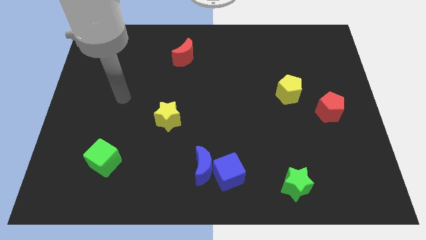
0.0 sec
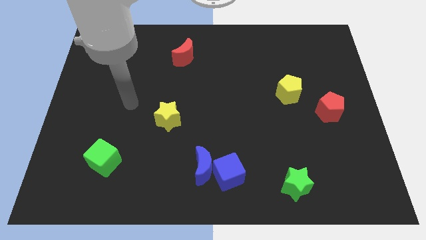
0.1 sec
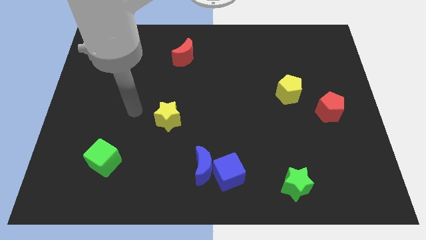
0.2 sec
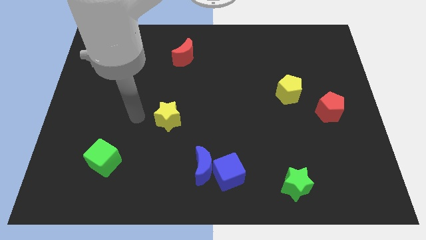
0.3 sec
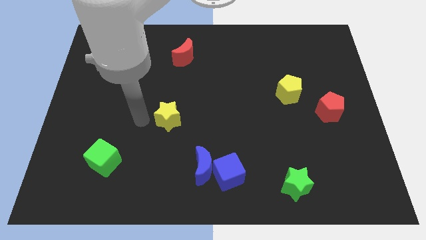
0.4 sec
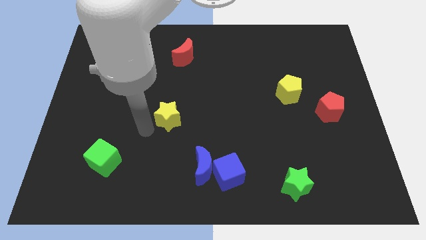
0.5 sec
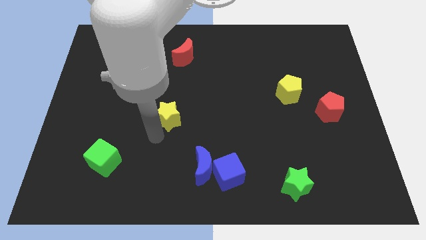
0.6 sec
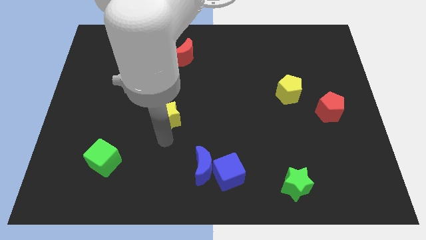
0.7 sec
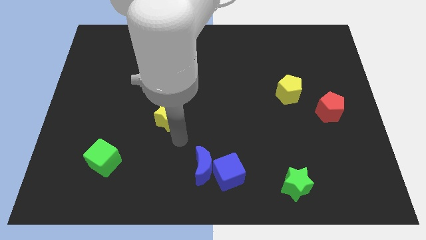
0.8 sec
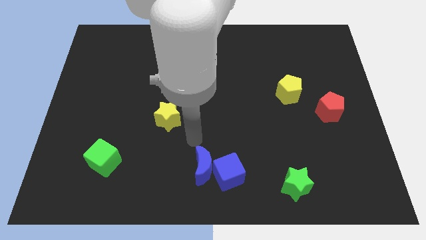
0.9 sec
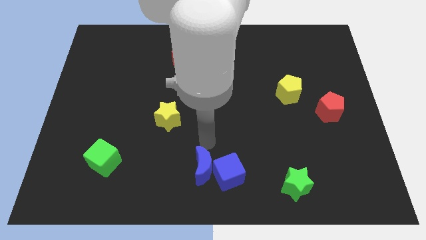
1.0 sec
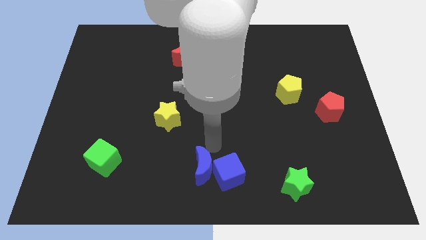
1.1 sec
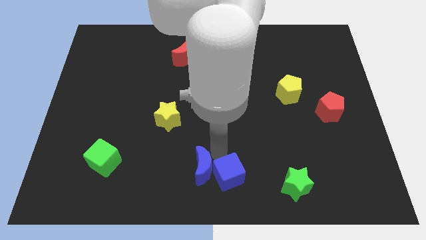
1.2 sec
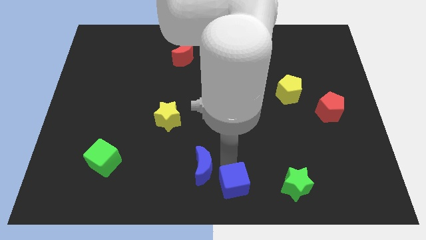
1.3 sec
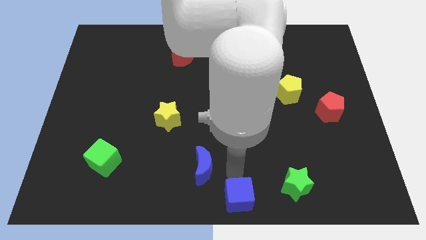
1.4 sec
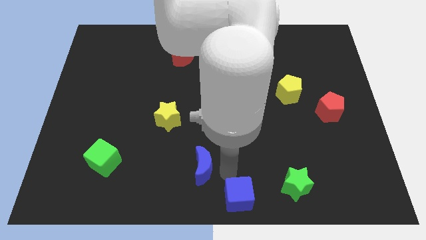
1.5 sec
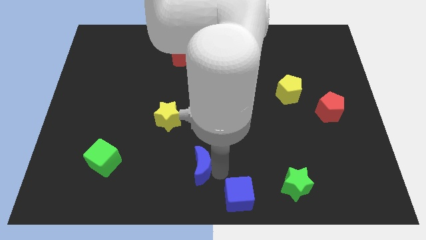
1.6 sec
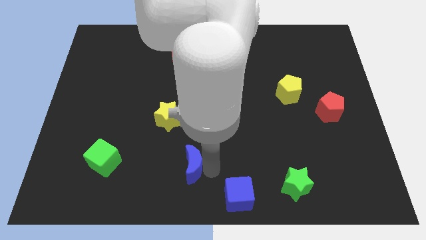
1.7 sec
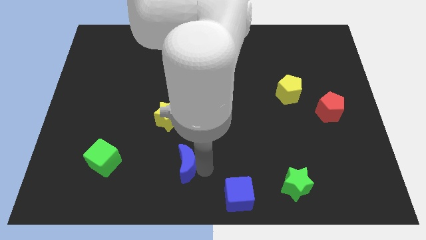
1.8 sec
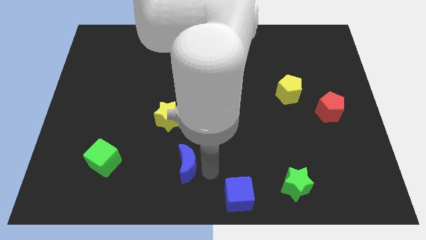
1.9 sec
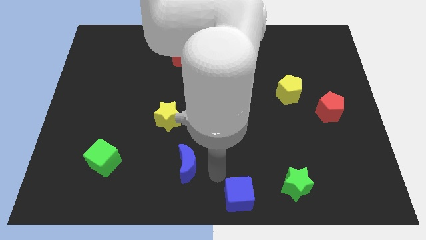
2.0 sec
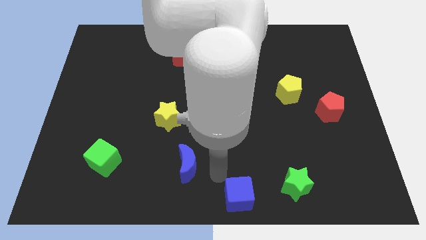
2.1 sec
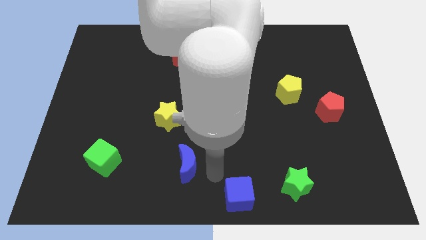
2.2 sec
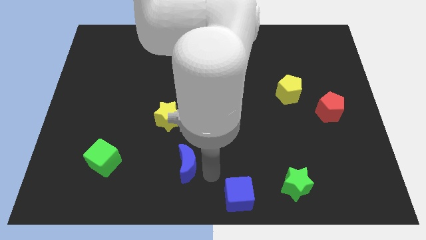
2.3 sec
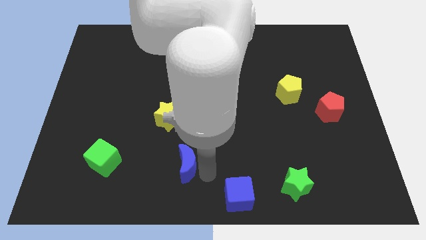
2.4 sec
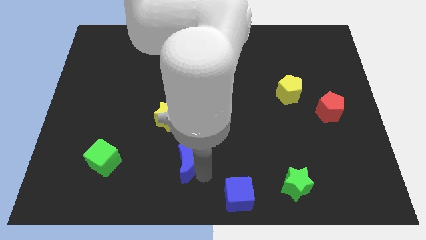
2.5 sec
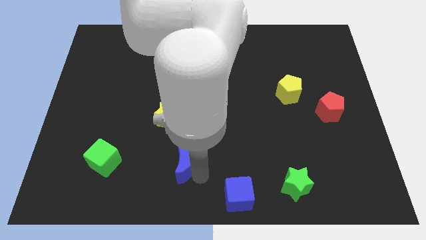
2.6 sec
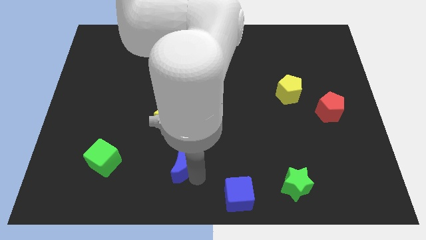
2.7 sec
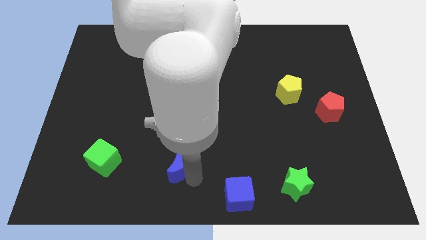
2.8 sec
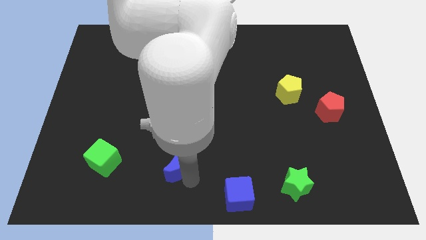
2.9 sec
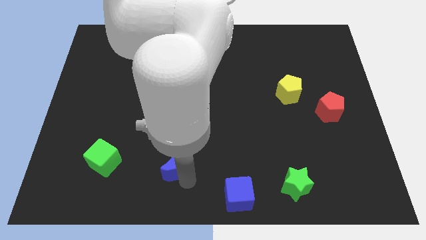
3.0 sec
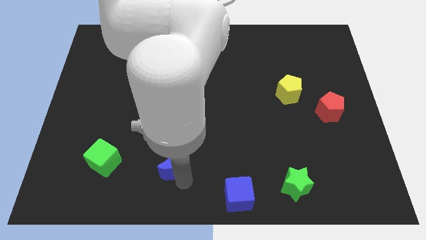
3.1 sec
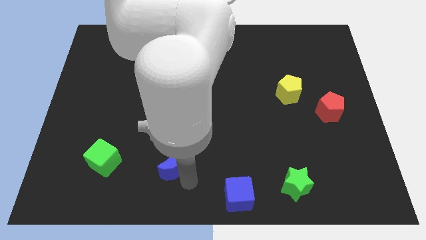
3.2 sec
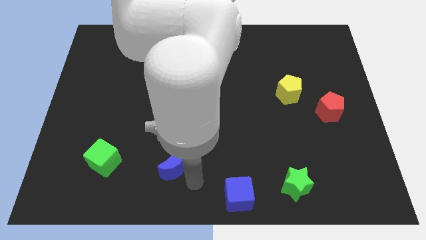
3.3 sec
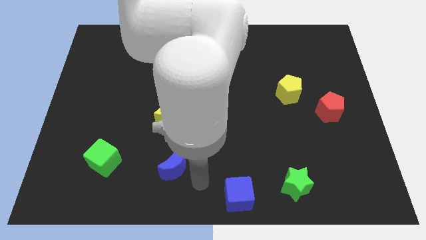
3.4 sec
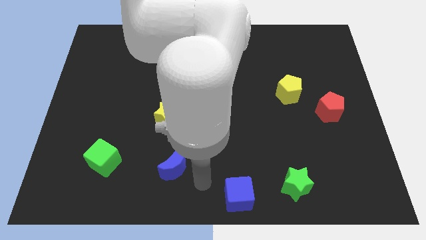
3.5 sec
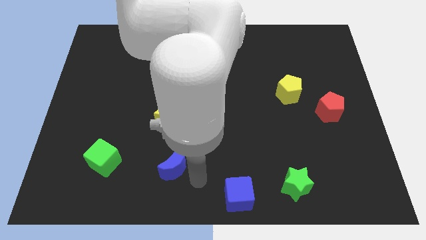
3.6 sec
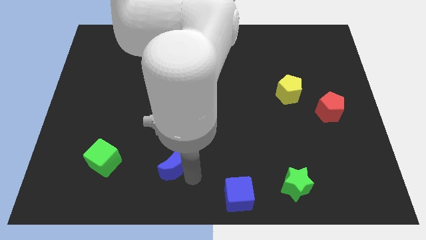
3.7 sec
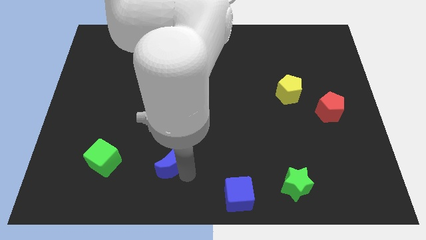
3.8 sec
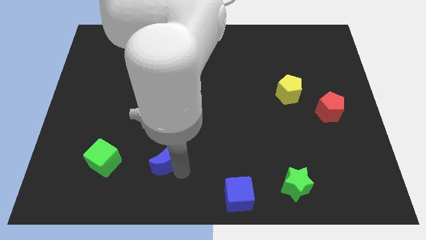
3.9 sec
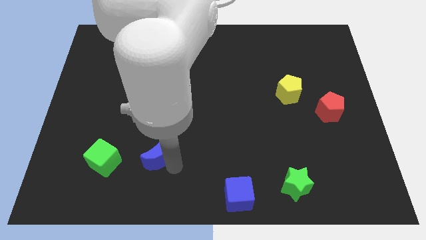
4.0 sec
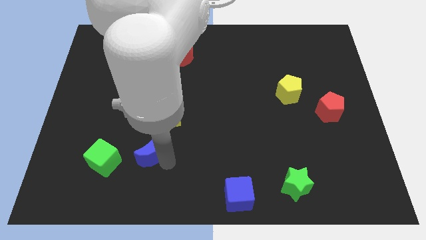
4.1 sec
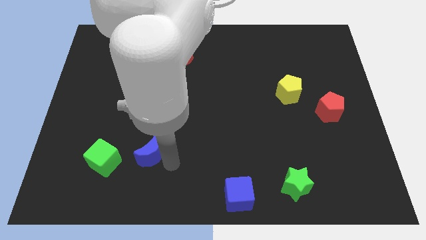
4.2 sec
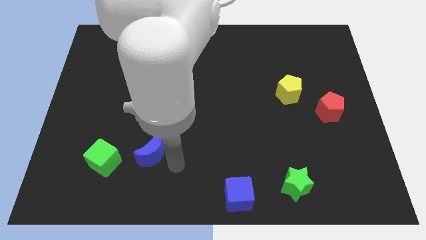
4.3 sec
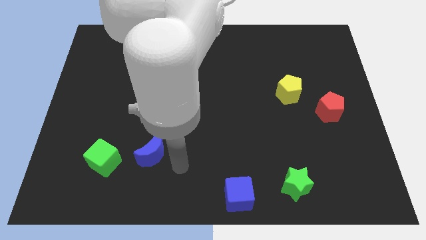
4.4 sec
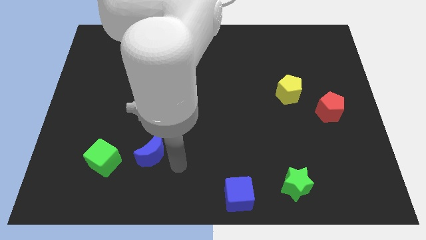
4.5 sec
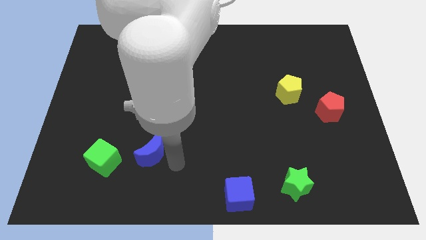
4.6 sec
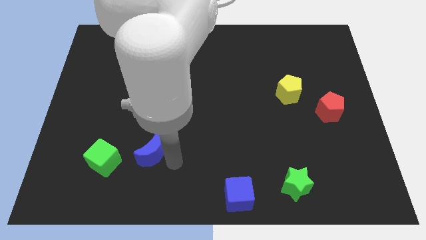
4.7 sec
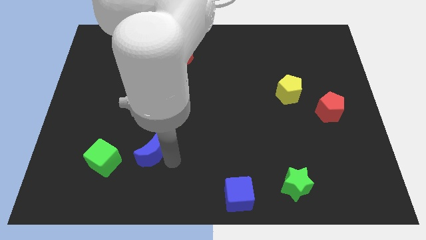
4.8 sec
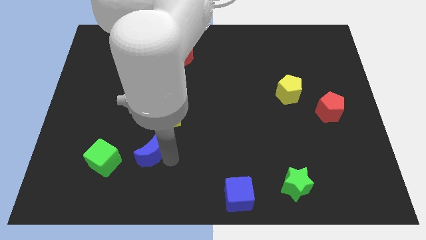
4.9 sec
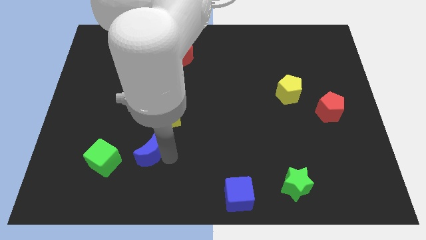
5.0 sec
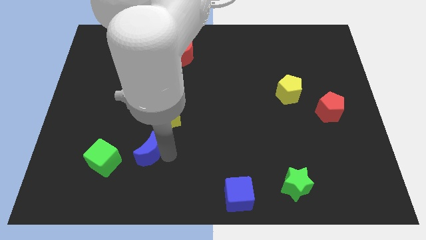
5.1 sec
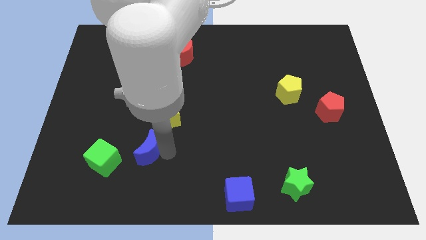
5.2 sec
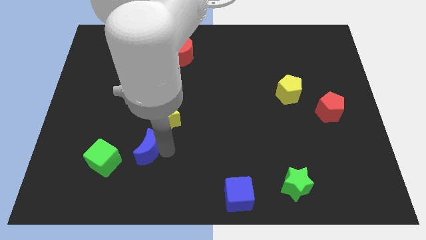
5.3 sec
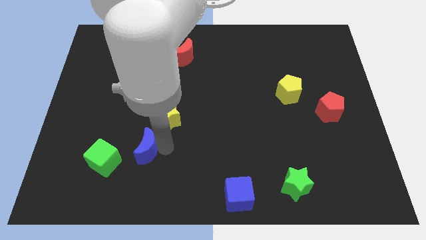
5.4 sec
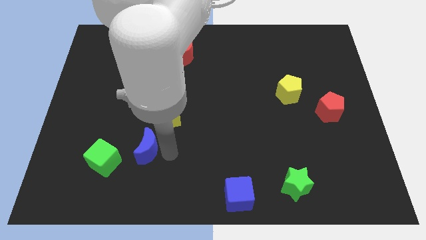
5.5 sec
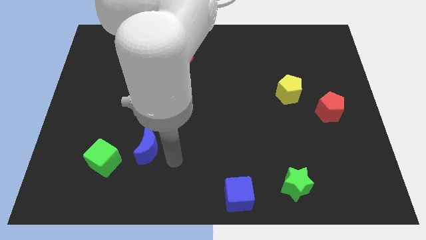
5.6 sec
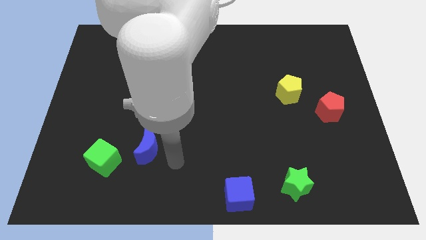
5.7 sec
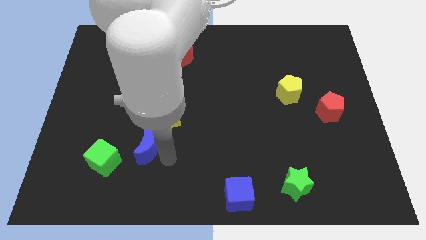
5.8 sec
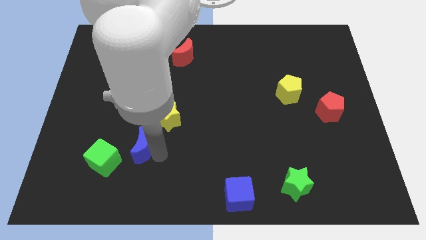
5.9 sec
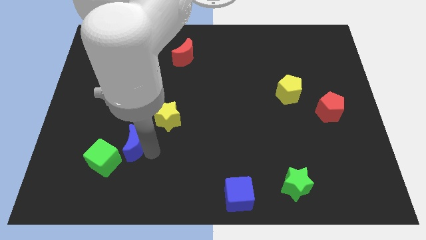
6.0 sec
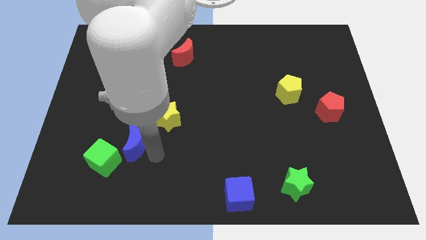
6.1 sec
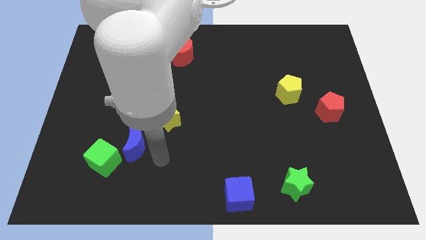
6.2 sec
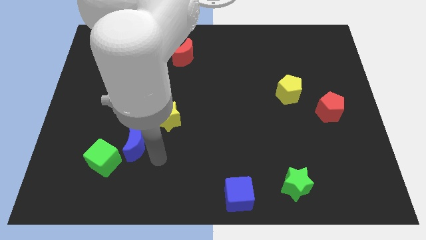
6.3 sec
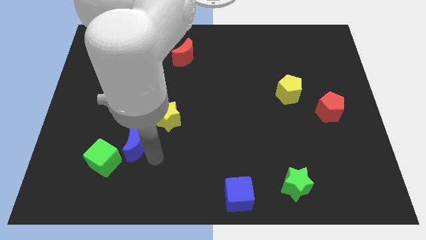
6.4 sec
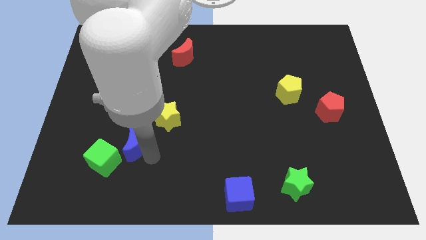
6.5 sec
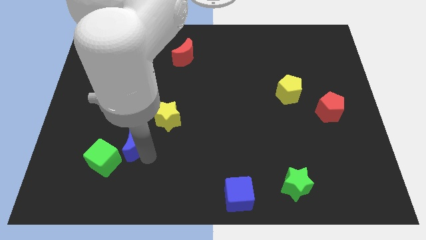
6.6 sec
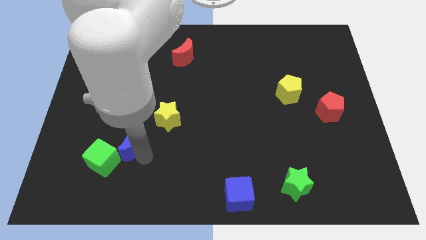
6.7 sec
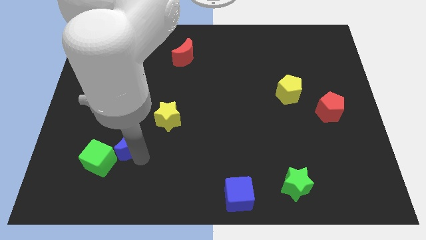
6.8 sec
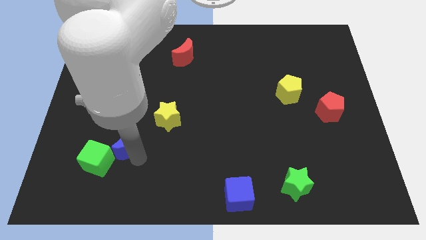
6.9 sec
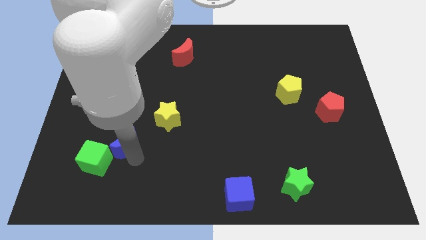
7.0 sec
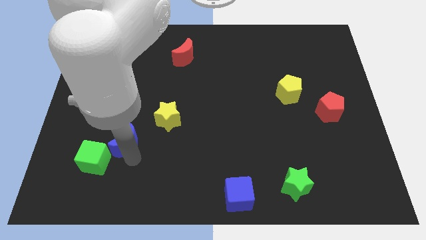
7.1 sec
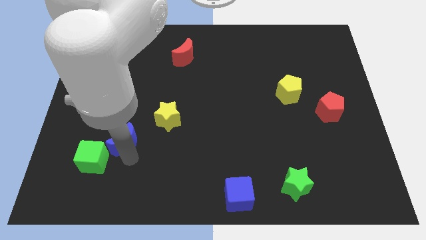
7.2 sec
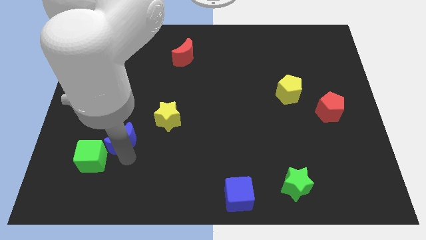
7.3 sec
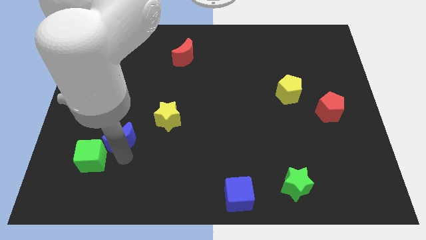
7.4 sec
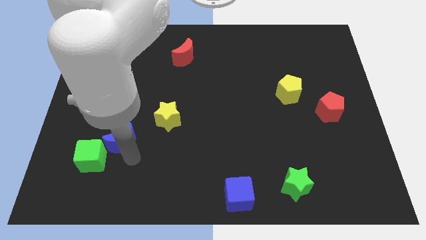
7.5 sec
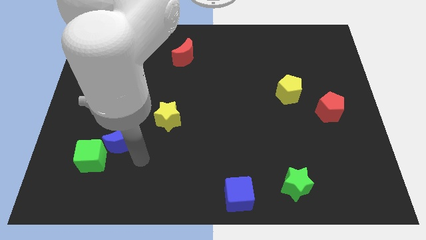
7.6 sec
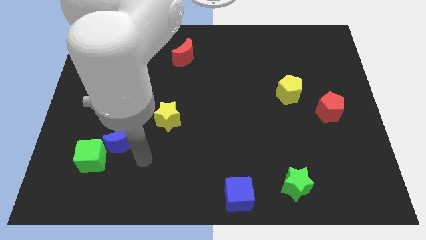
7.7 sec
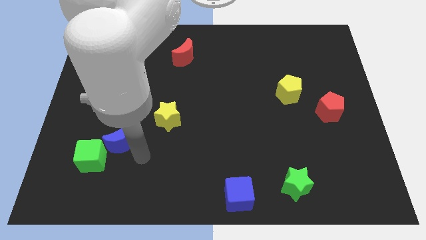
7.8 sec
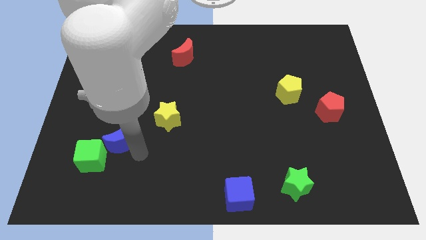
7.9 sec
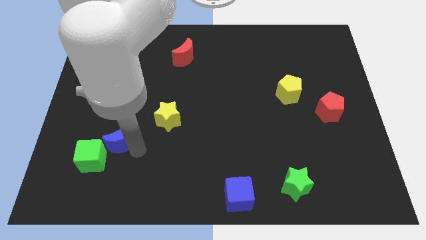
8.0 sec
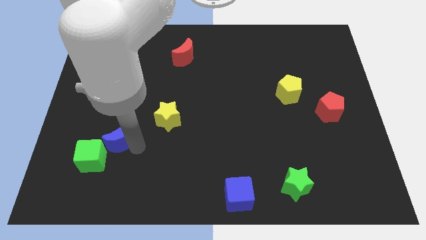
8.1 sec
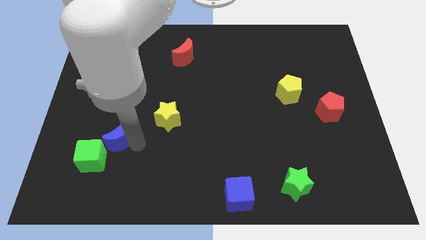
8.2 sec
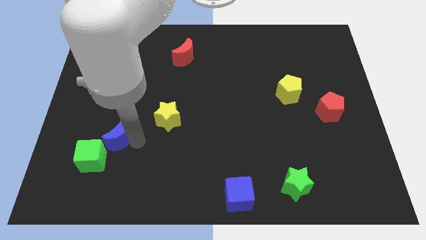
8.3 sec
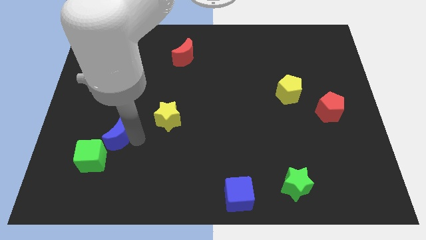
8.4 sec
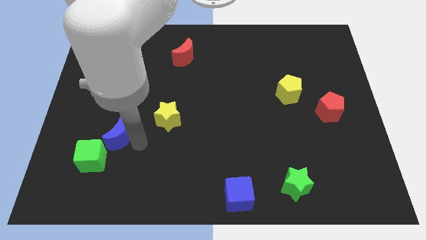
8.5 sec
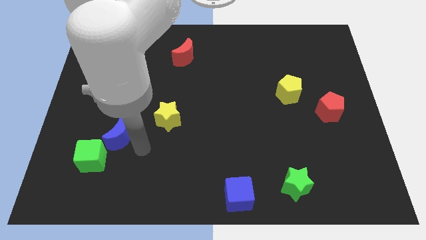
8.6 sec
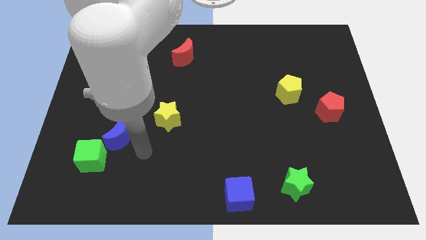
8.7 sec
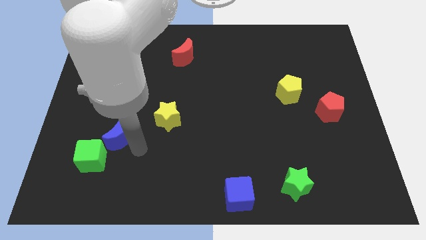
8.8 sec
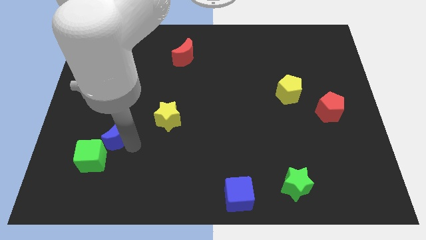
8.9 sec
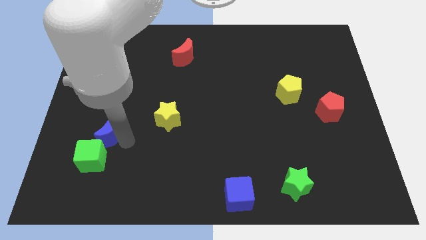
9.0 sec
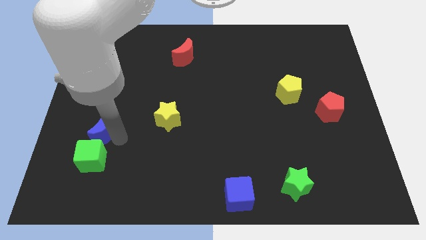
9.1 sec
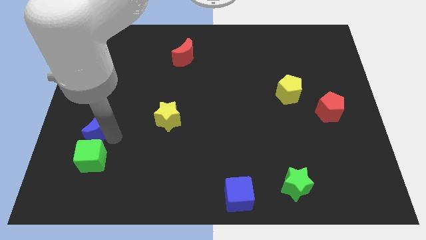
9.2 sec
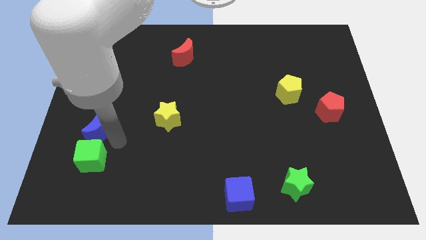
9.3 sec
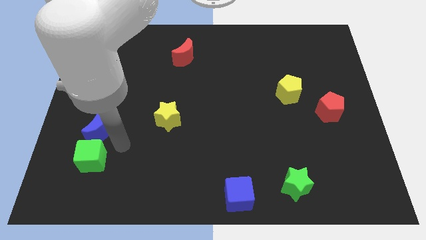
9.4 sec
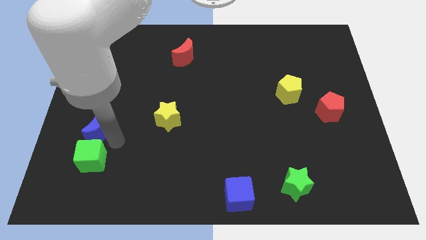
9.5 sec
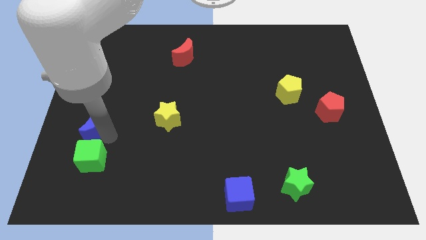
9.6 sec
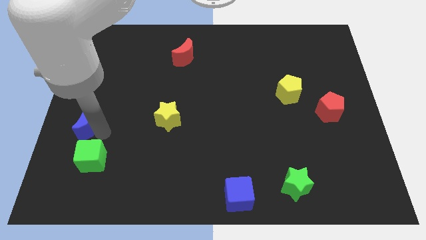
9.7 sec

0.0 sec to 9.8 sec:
push the blue moon to the left side
